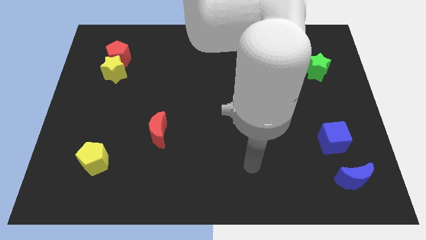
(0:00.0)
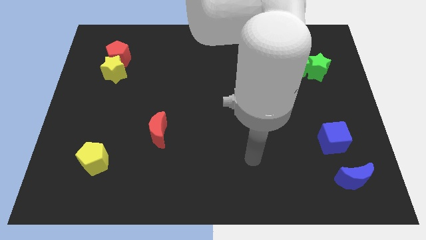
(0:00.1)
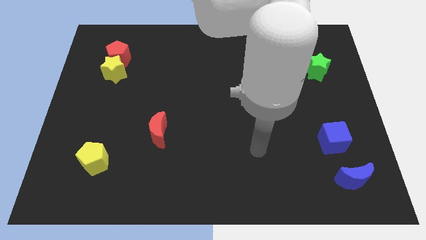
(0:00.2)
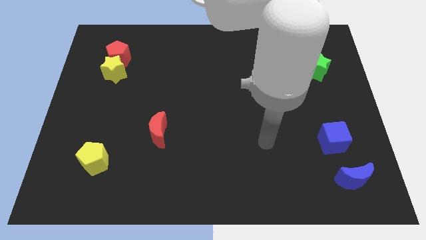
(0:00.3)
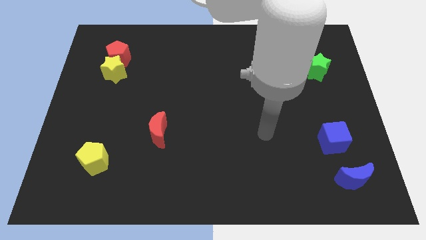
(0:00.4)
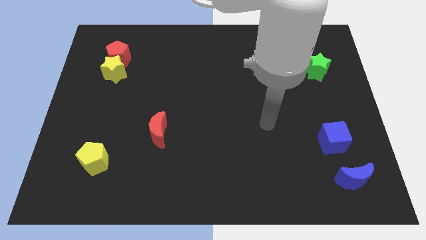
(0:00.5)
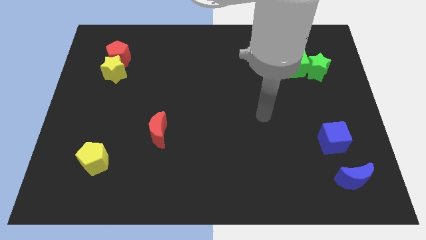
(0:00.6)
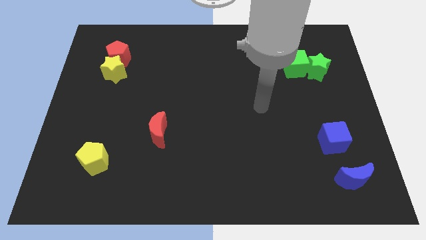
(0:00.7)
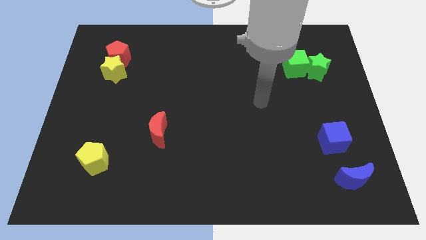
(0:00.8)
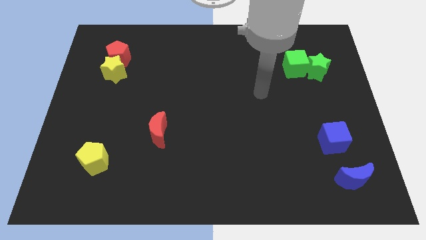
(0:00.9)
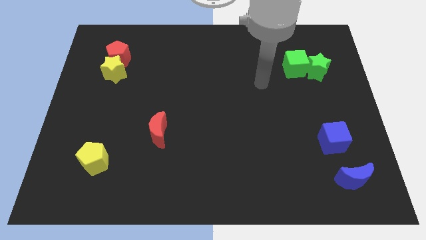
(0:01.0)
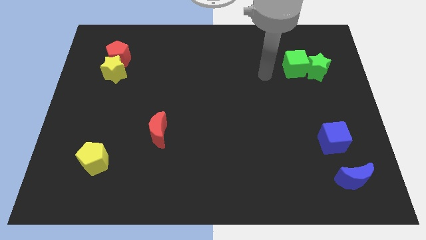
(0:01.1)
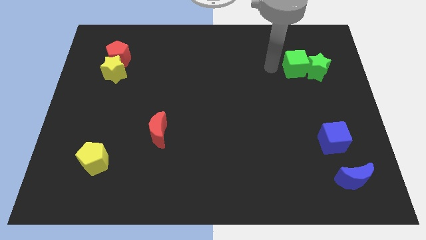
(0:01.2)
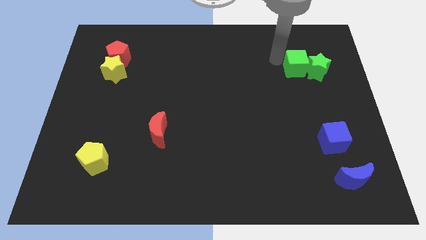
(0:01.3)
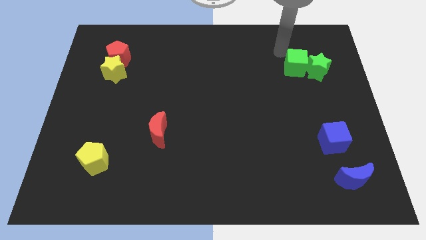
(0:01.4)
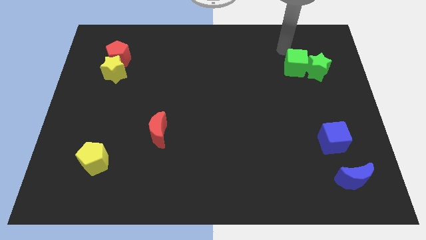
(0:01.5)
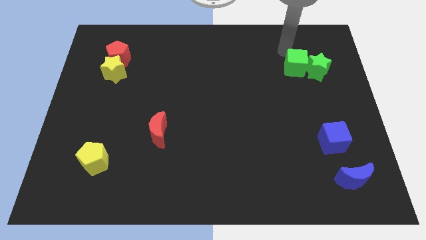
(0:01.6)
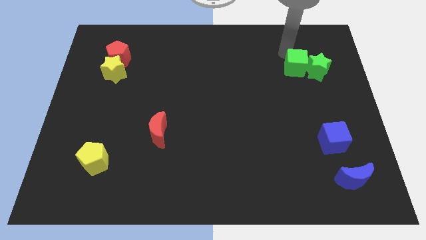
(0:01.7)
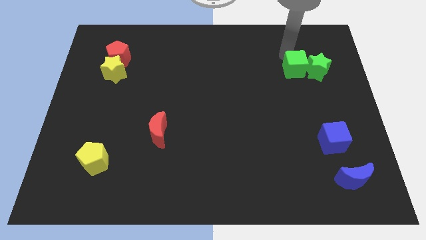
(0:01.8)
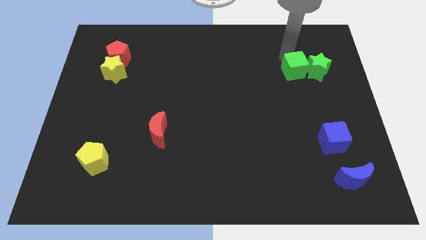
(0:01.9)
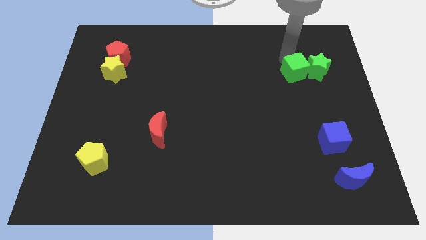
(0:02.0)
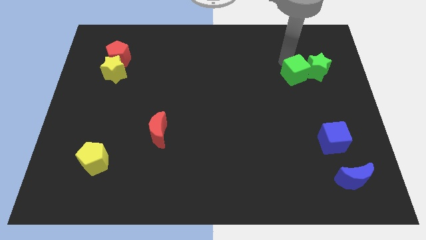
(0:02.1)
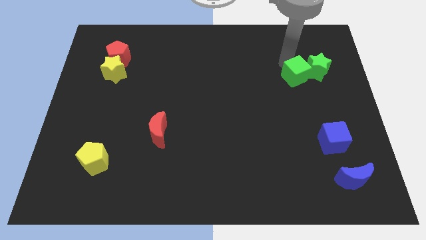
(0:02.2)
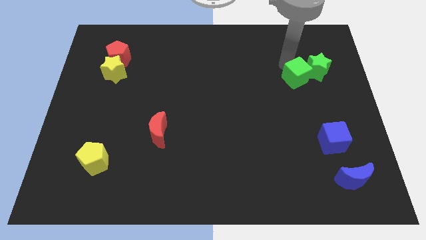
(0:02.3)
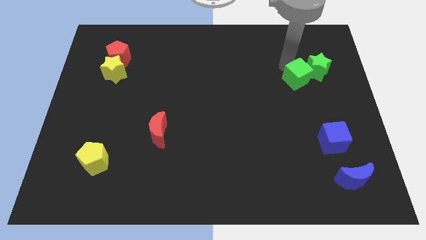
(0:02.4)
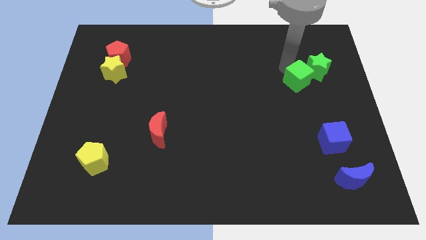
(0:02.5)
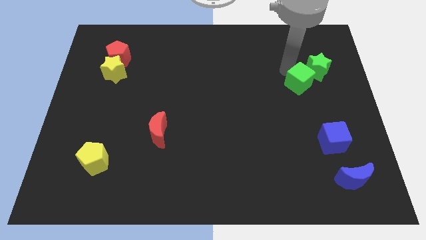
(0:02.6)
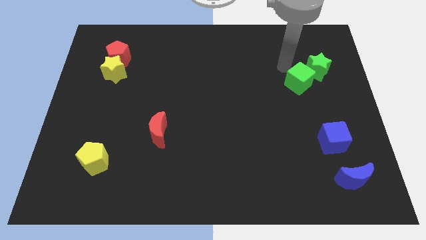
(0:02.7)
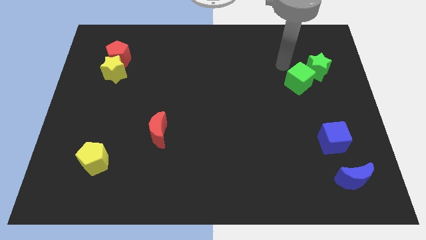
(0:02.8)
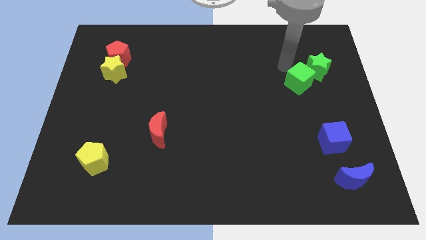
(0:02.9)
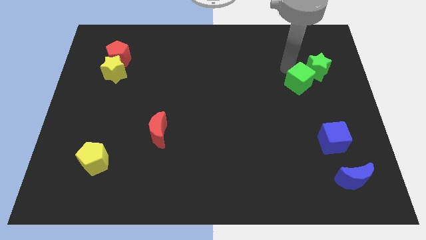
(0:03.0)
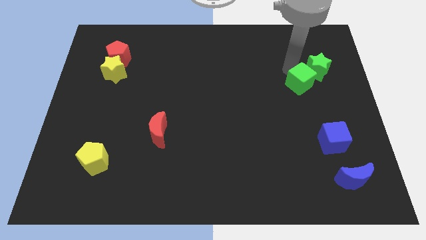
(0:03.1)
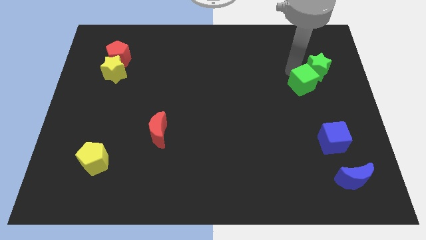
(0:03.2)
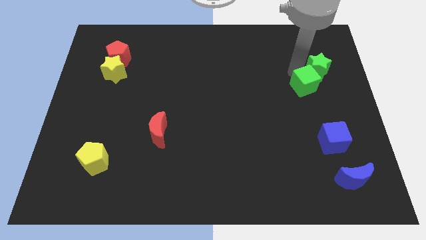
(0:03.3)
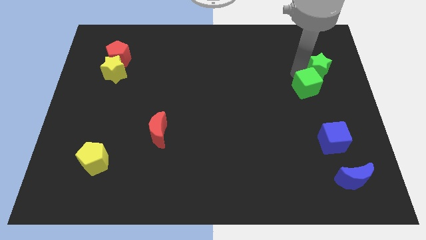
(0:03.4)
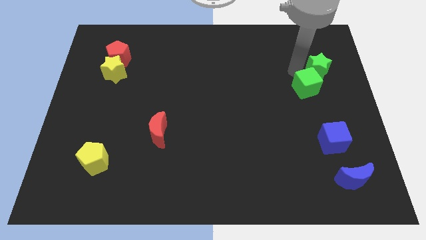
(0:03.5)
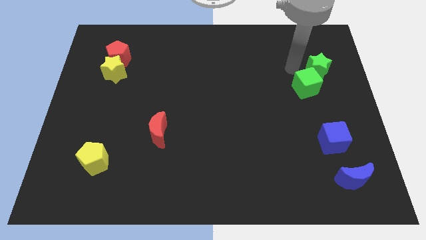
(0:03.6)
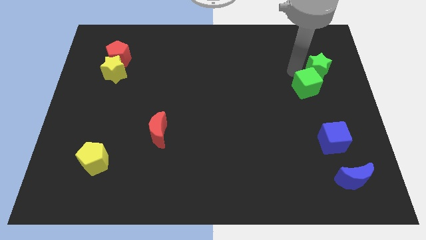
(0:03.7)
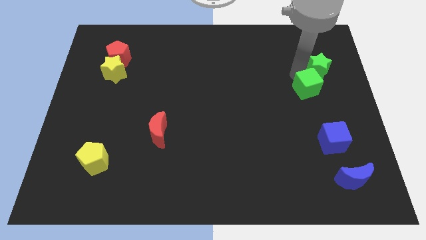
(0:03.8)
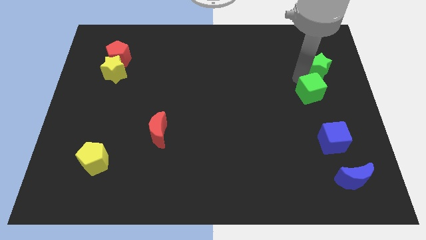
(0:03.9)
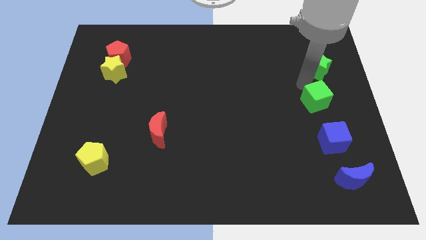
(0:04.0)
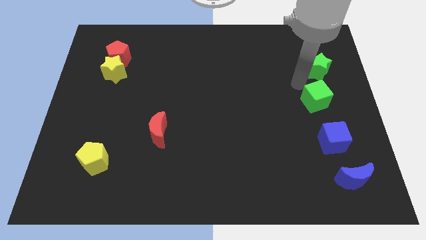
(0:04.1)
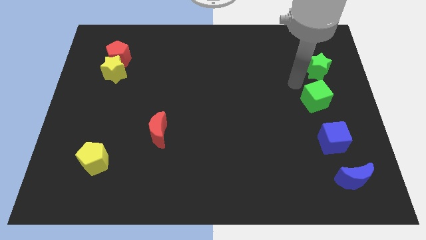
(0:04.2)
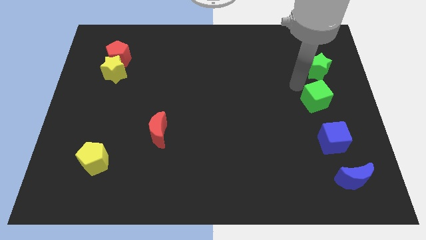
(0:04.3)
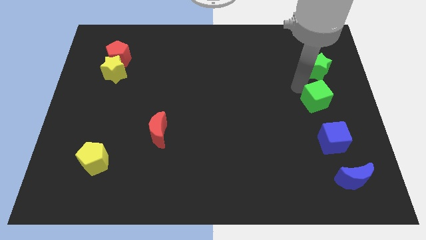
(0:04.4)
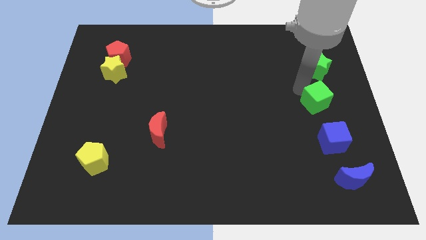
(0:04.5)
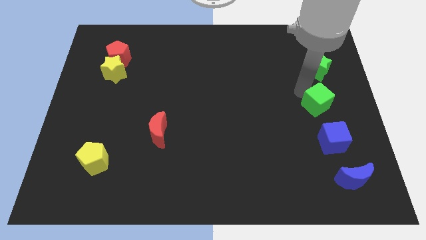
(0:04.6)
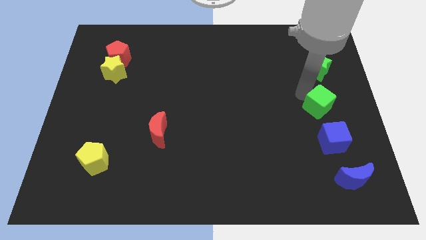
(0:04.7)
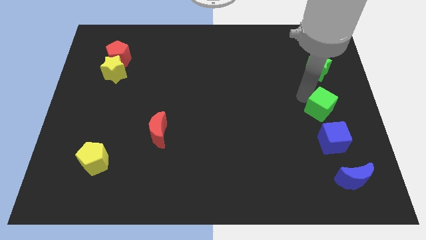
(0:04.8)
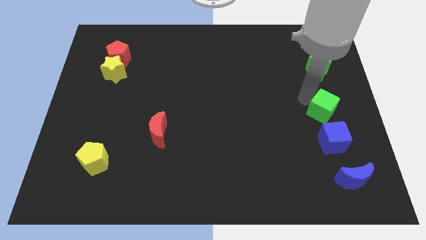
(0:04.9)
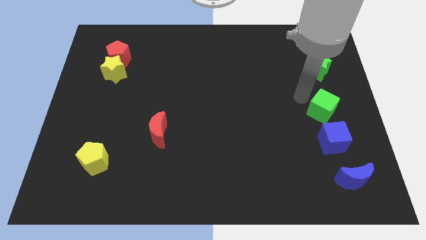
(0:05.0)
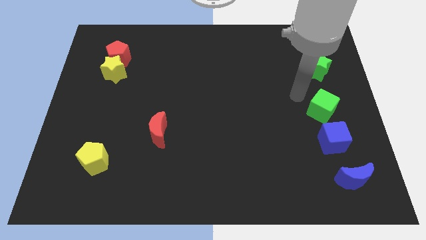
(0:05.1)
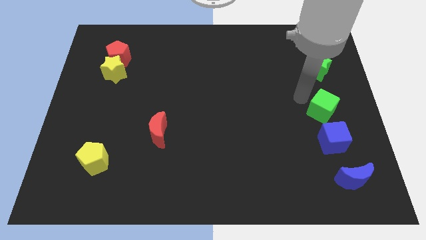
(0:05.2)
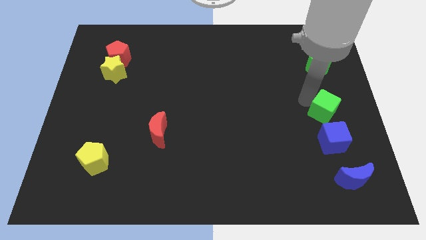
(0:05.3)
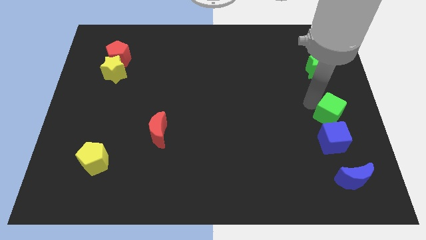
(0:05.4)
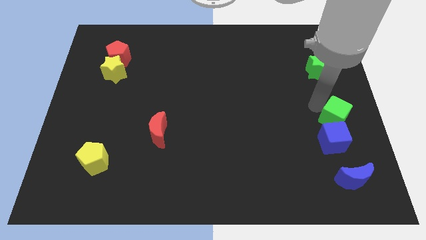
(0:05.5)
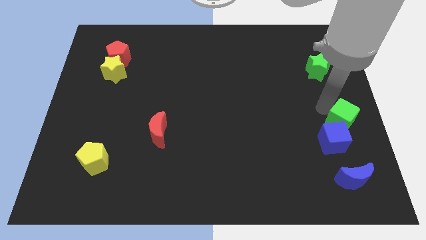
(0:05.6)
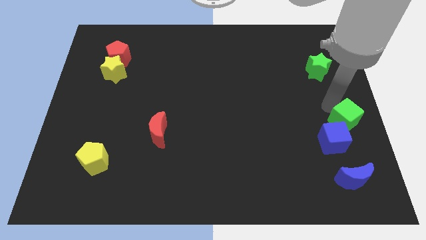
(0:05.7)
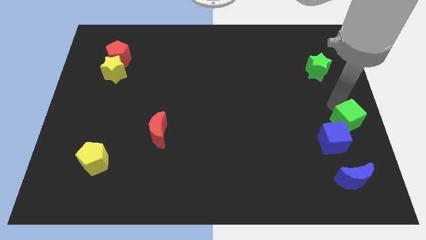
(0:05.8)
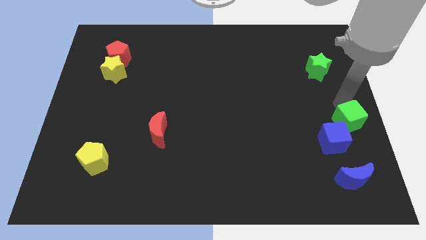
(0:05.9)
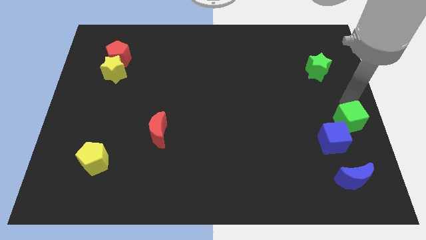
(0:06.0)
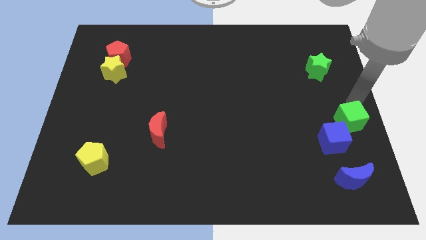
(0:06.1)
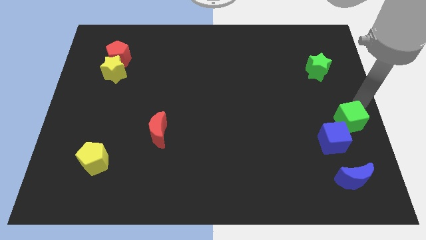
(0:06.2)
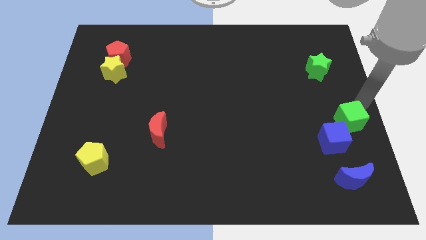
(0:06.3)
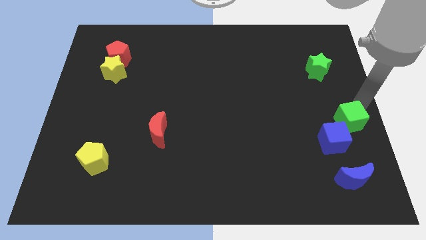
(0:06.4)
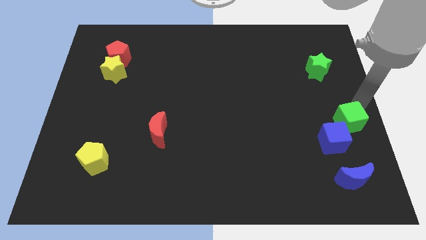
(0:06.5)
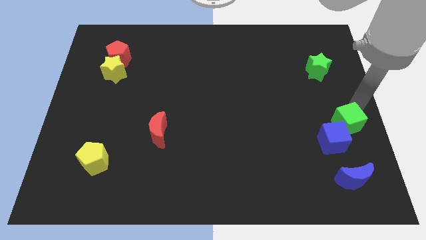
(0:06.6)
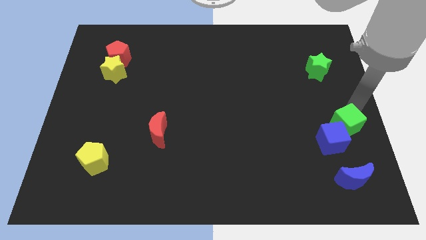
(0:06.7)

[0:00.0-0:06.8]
slide the green cube close to the blue cube

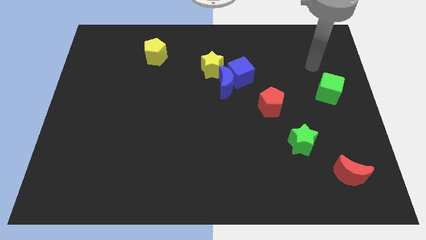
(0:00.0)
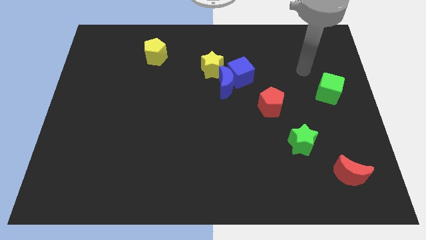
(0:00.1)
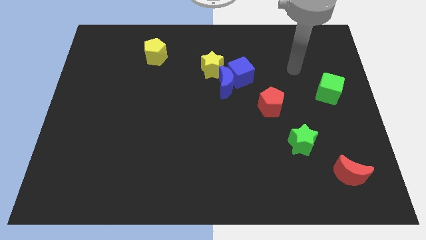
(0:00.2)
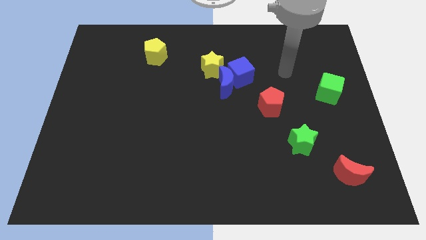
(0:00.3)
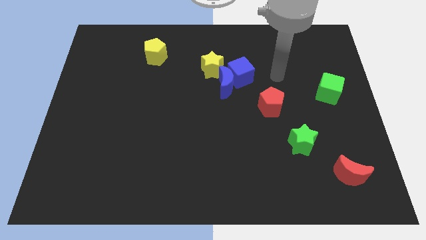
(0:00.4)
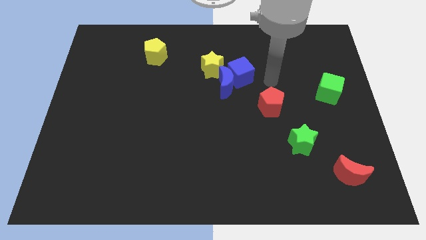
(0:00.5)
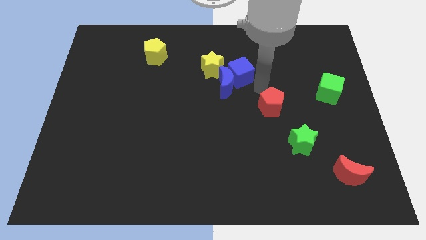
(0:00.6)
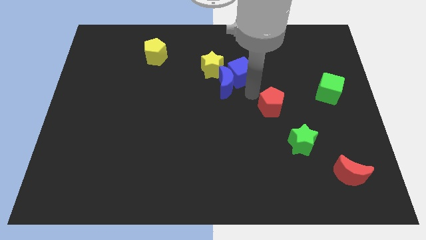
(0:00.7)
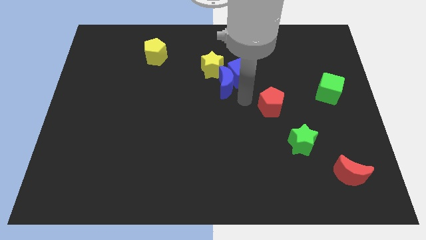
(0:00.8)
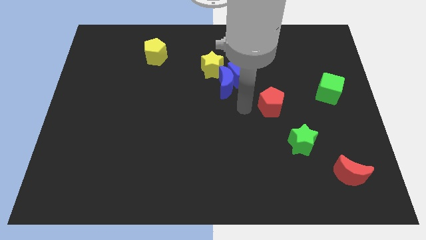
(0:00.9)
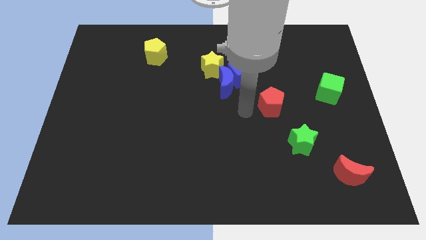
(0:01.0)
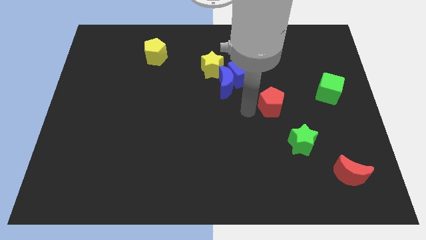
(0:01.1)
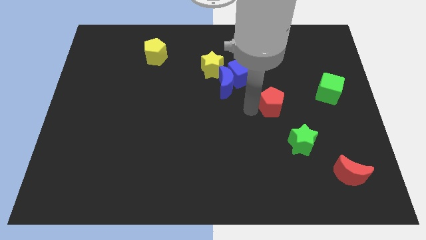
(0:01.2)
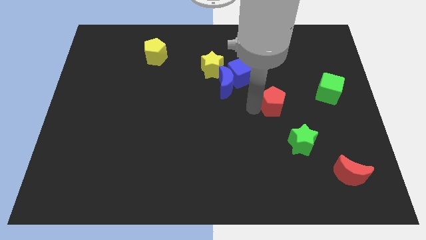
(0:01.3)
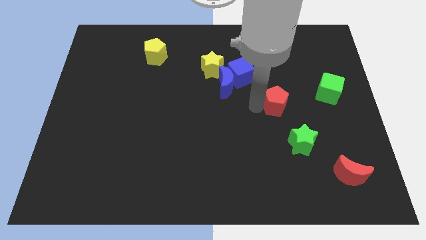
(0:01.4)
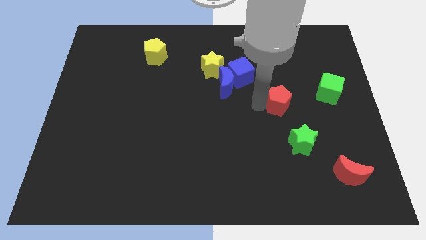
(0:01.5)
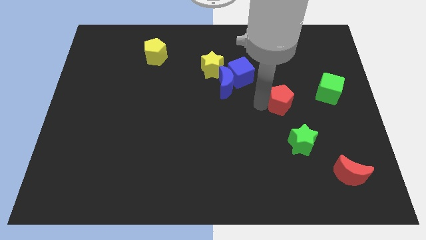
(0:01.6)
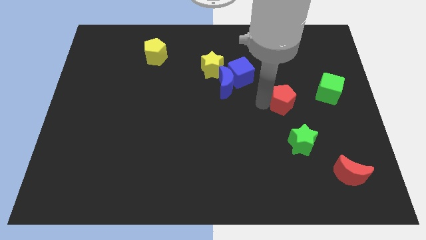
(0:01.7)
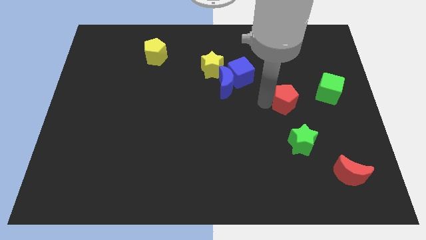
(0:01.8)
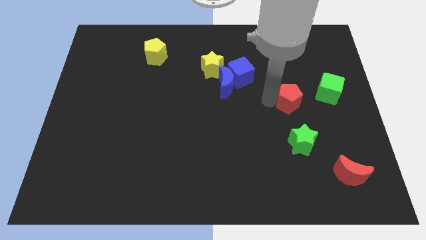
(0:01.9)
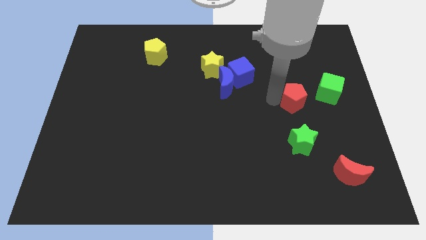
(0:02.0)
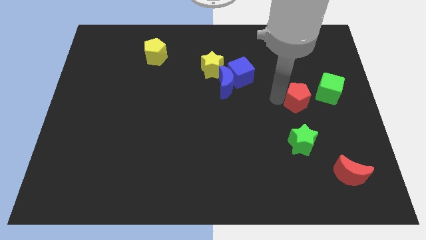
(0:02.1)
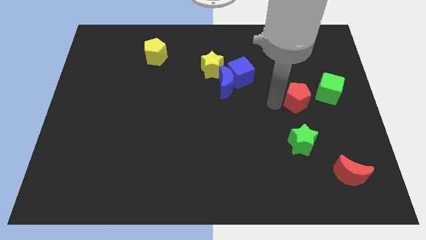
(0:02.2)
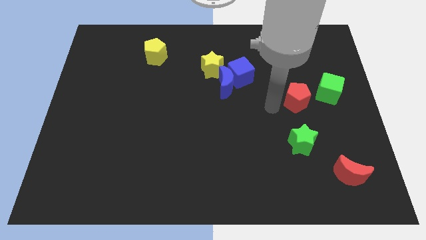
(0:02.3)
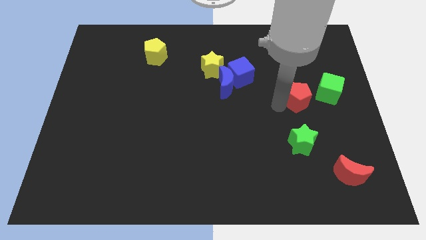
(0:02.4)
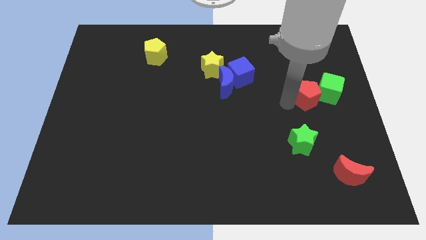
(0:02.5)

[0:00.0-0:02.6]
slide the red pentagon towards the green cube
